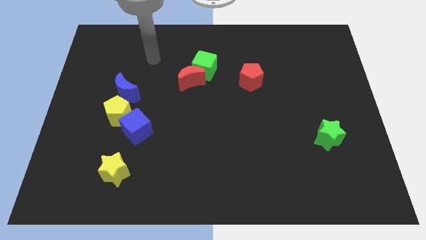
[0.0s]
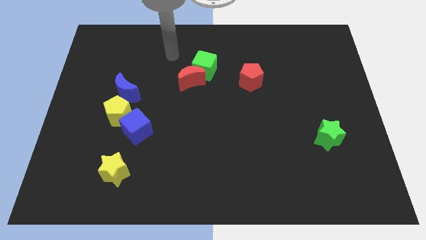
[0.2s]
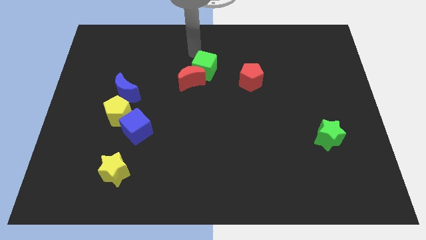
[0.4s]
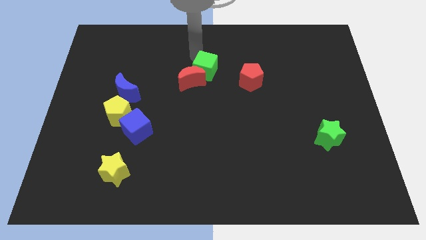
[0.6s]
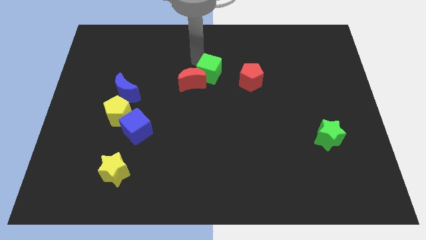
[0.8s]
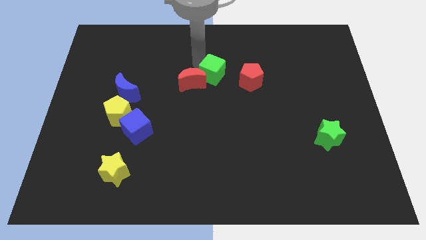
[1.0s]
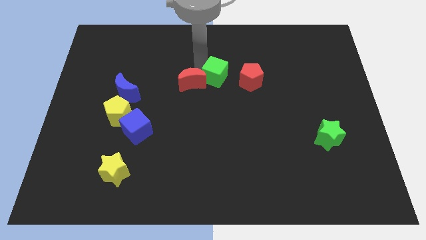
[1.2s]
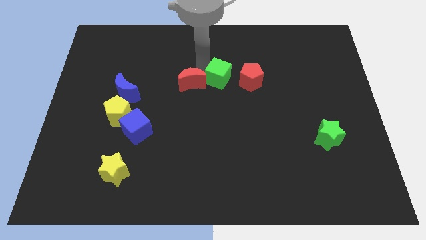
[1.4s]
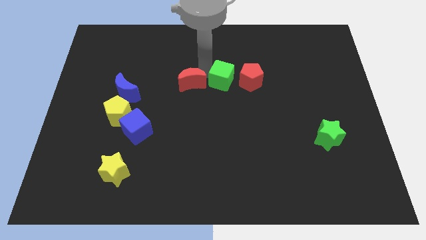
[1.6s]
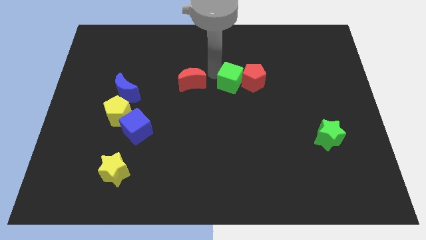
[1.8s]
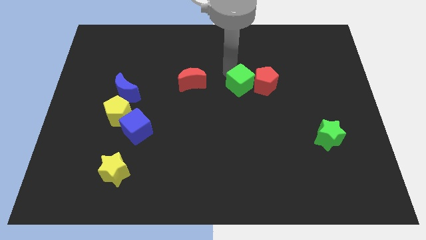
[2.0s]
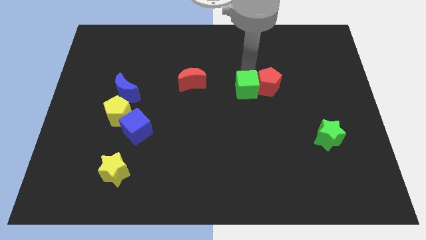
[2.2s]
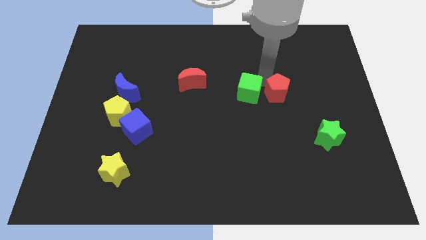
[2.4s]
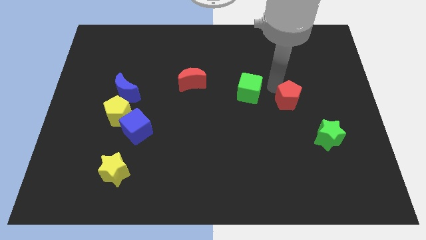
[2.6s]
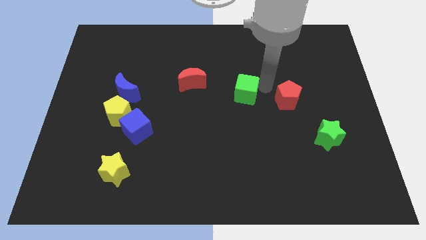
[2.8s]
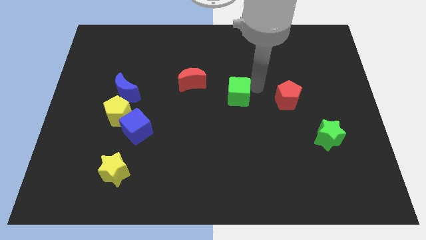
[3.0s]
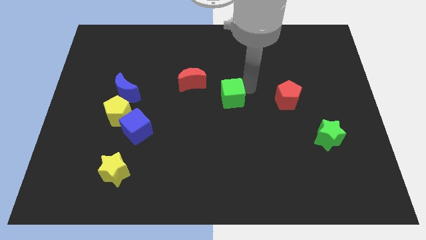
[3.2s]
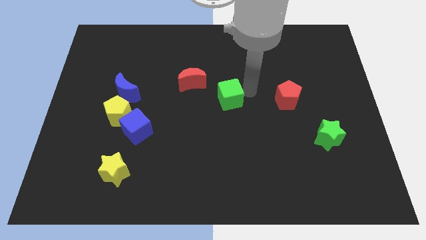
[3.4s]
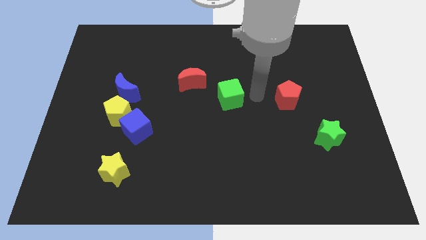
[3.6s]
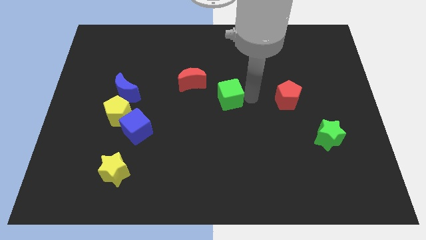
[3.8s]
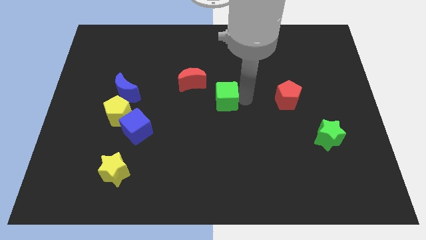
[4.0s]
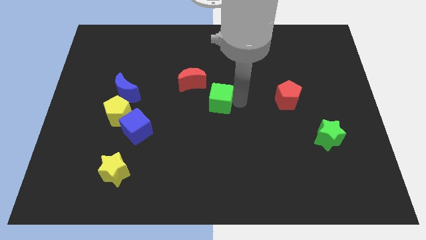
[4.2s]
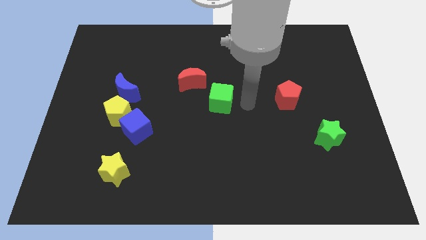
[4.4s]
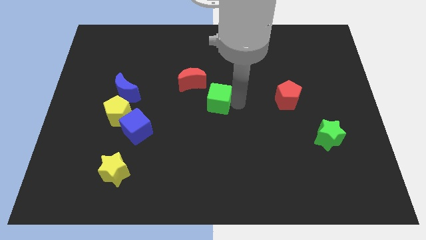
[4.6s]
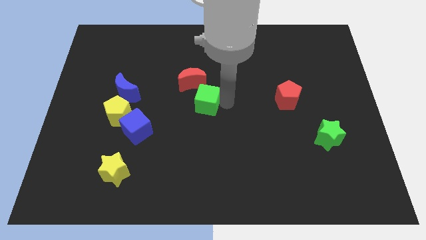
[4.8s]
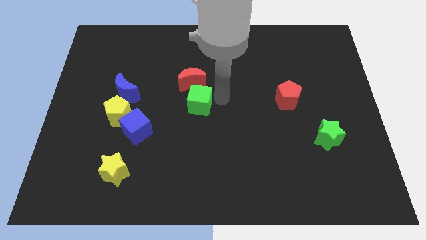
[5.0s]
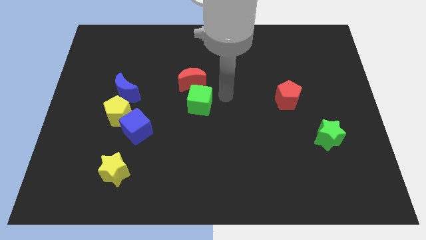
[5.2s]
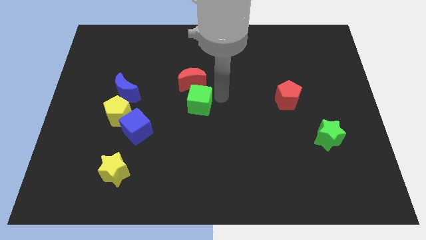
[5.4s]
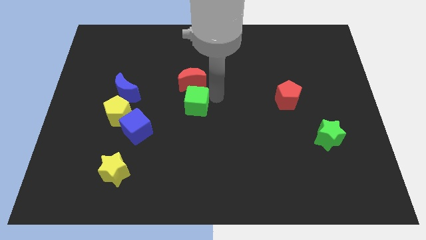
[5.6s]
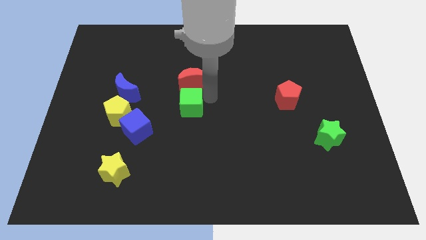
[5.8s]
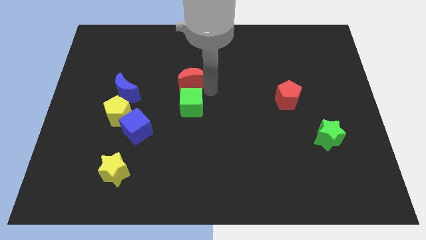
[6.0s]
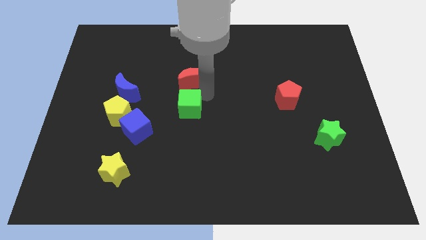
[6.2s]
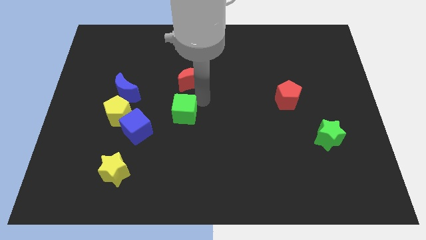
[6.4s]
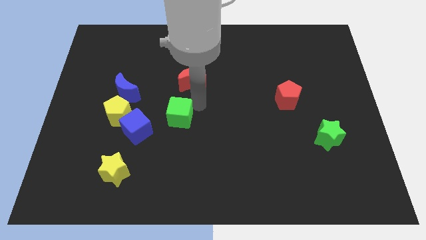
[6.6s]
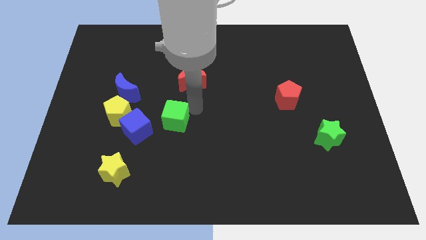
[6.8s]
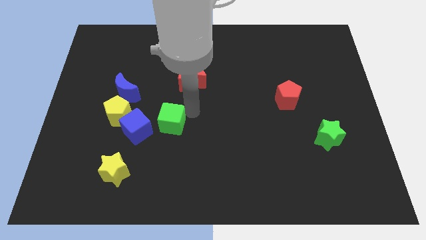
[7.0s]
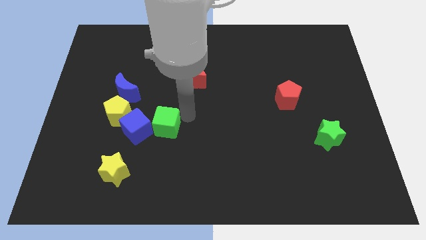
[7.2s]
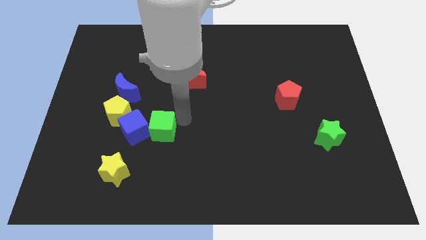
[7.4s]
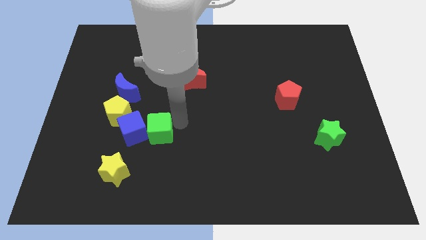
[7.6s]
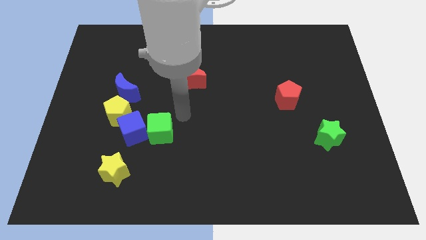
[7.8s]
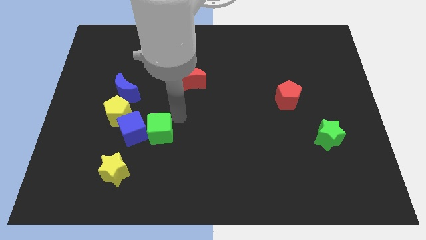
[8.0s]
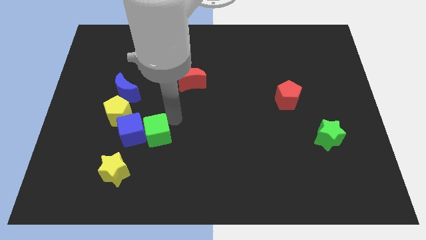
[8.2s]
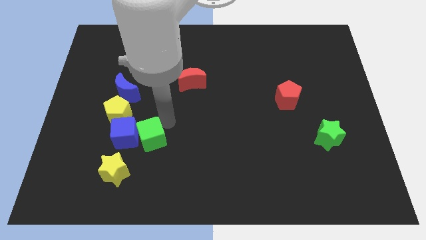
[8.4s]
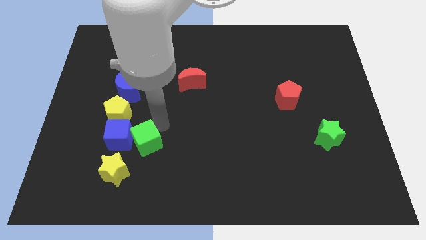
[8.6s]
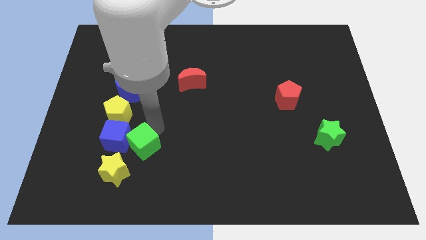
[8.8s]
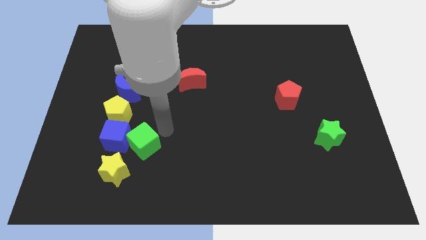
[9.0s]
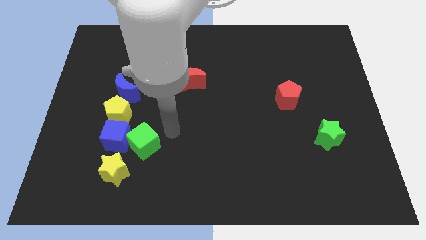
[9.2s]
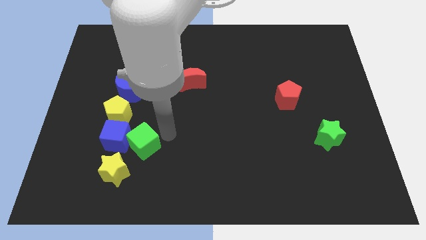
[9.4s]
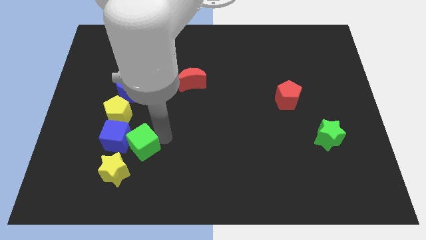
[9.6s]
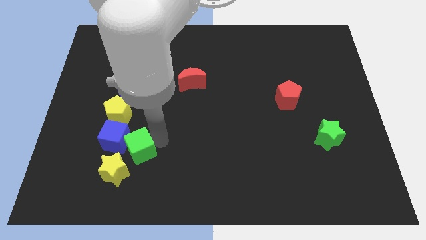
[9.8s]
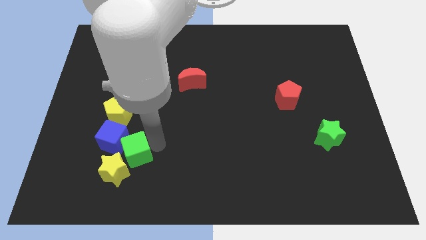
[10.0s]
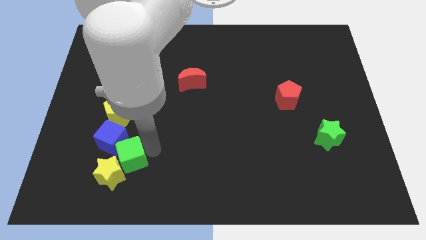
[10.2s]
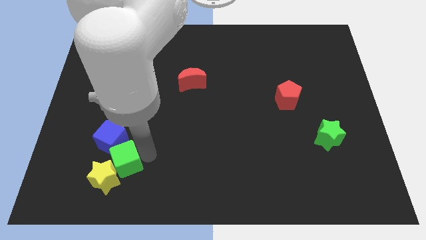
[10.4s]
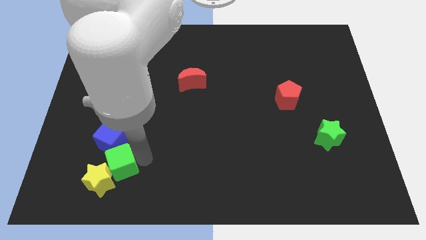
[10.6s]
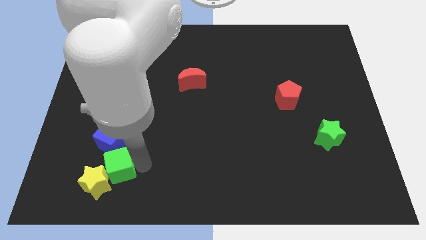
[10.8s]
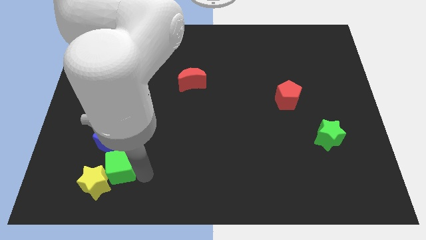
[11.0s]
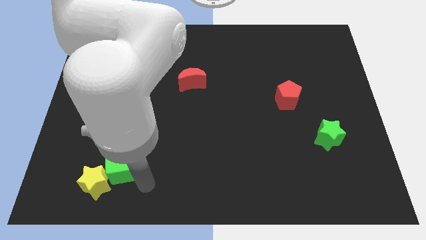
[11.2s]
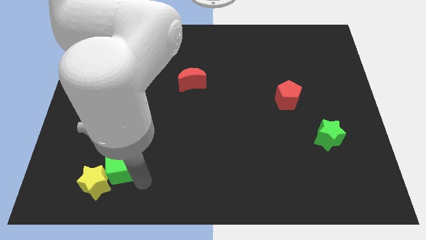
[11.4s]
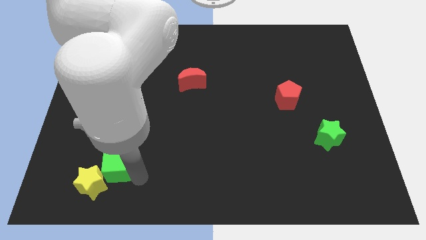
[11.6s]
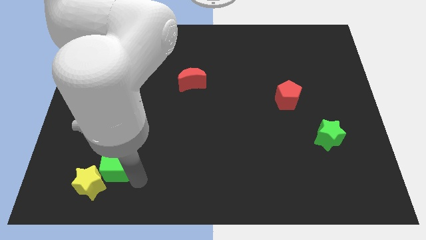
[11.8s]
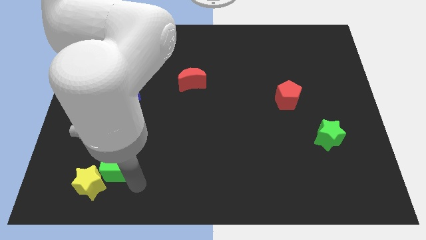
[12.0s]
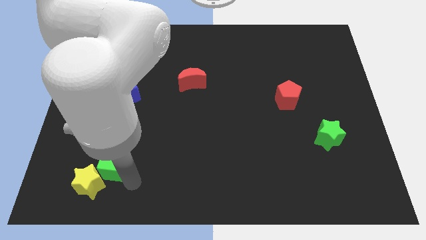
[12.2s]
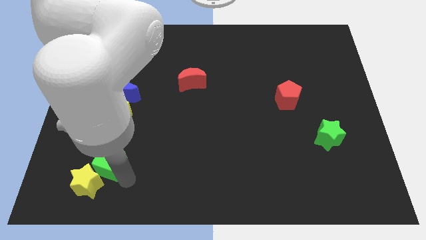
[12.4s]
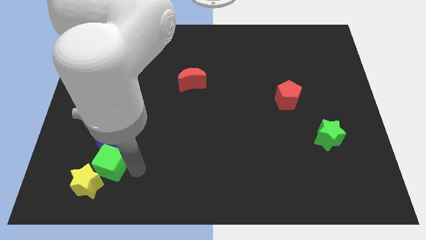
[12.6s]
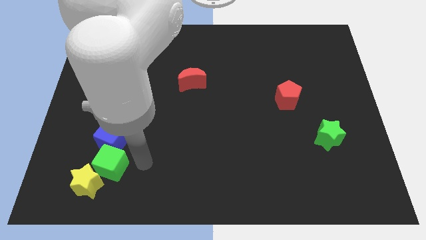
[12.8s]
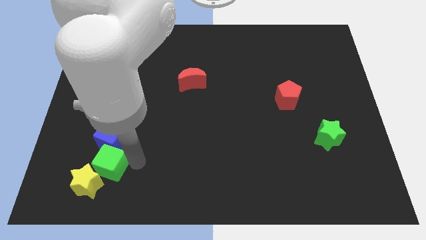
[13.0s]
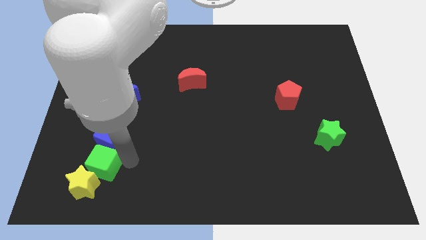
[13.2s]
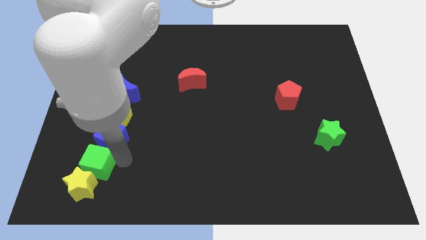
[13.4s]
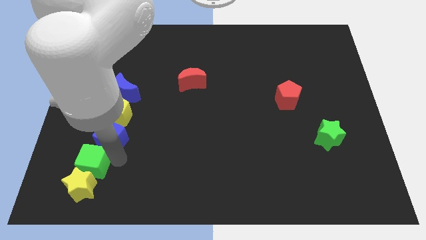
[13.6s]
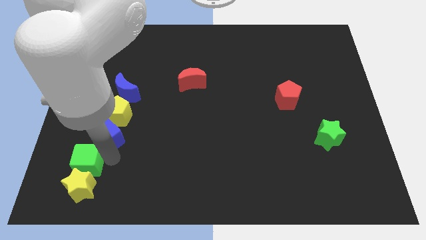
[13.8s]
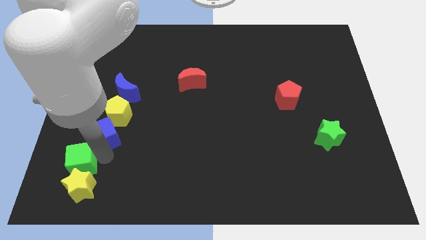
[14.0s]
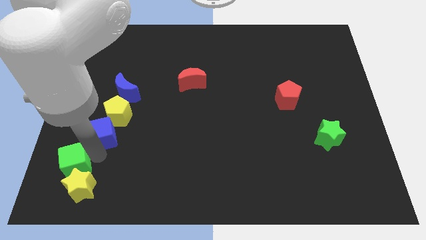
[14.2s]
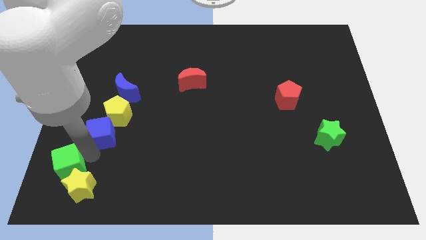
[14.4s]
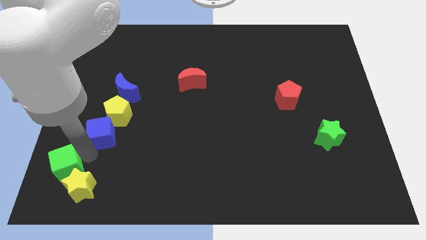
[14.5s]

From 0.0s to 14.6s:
push the green cube to the bottom left of the board
